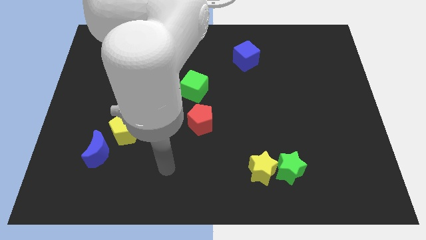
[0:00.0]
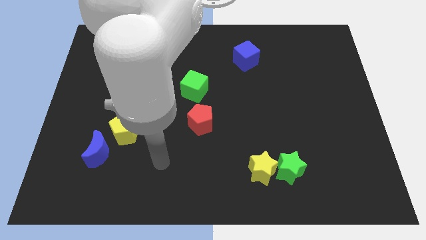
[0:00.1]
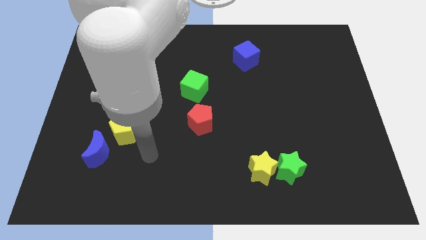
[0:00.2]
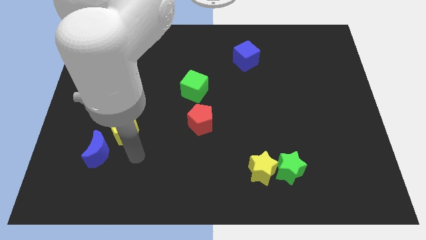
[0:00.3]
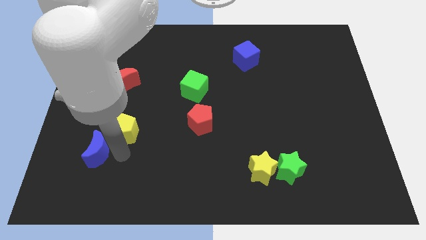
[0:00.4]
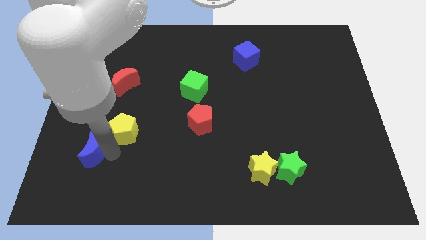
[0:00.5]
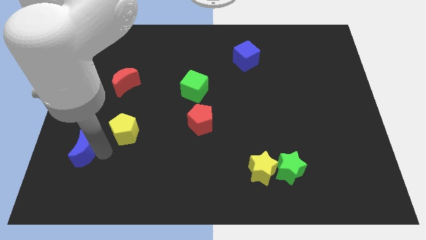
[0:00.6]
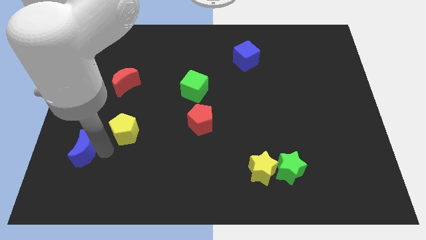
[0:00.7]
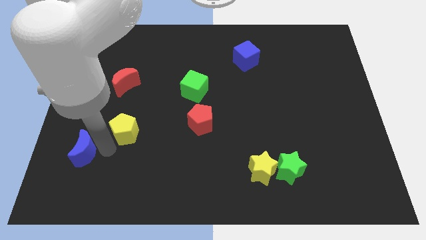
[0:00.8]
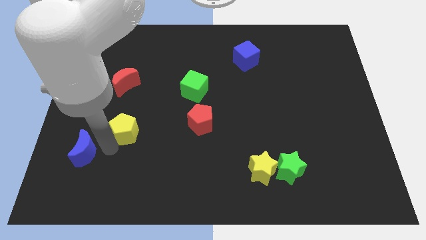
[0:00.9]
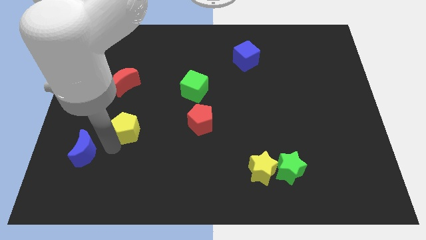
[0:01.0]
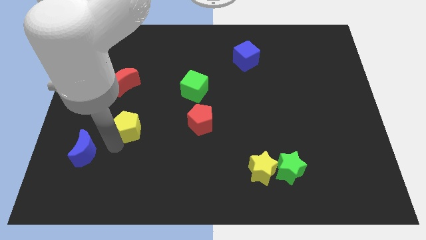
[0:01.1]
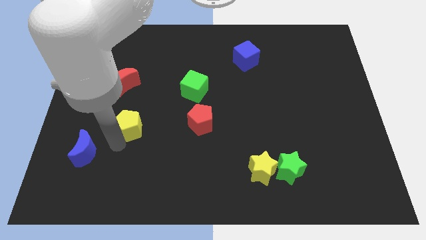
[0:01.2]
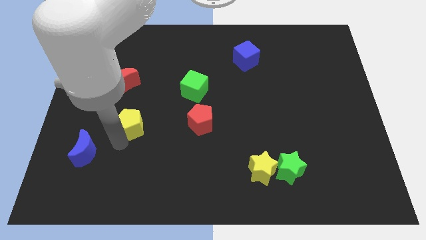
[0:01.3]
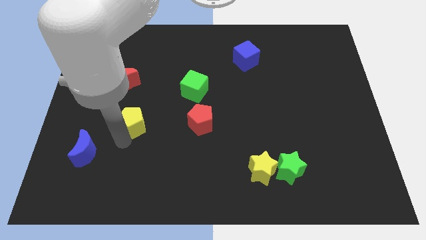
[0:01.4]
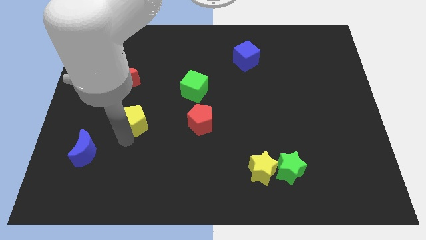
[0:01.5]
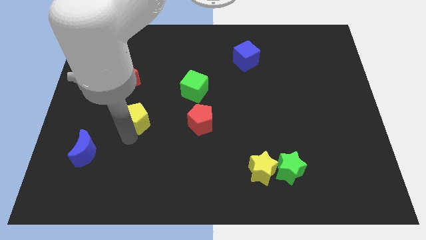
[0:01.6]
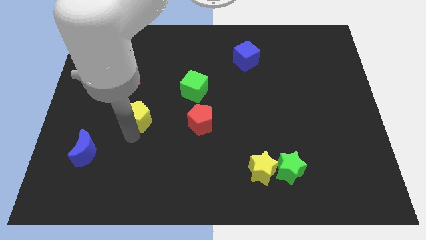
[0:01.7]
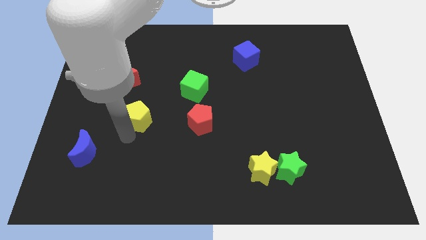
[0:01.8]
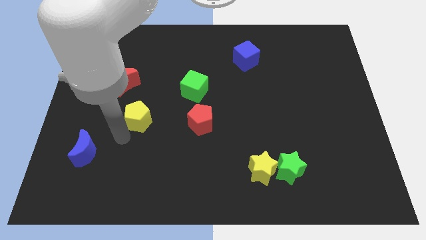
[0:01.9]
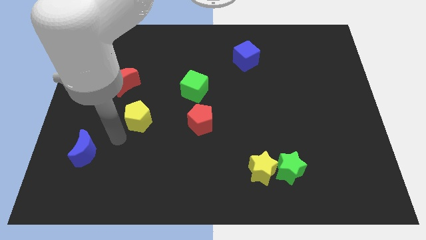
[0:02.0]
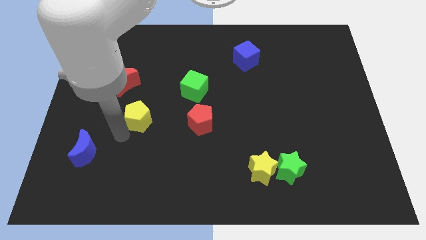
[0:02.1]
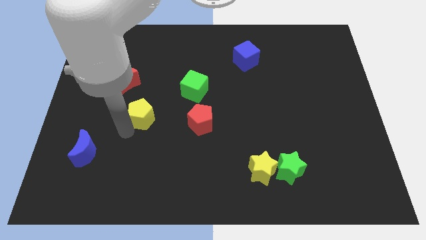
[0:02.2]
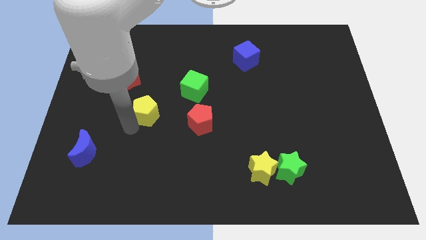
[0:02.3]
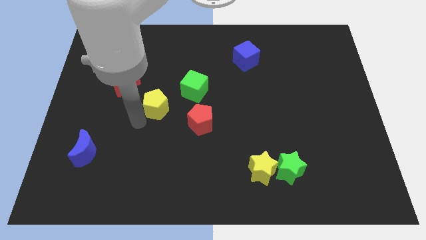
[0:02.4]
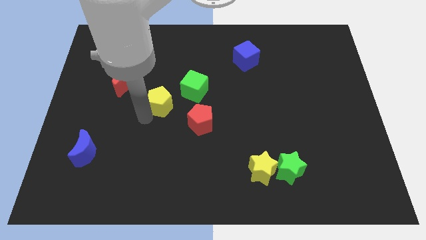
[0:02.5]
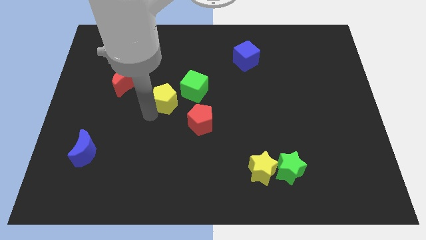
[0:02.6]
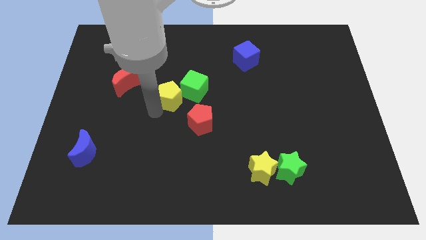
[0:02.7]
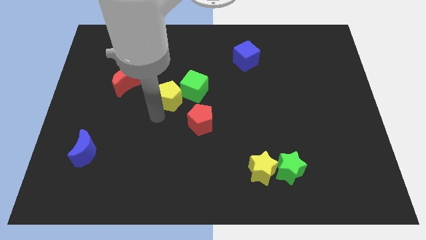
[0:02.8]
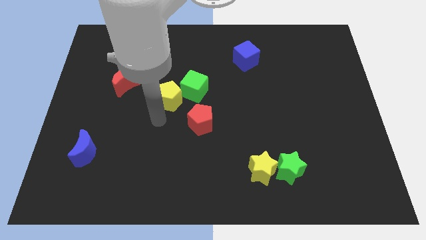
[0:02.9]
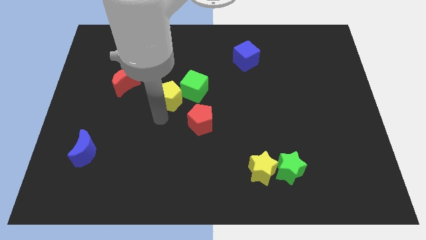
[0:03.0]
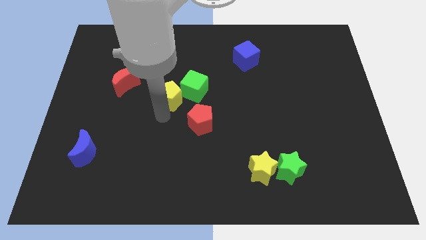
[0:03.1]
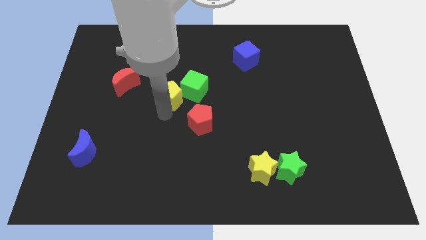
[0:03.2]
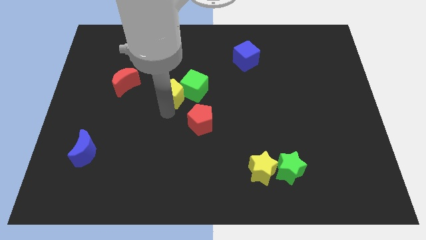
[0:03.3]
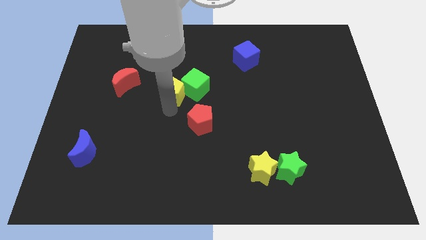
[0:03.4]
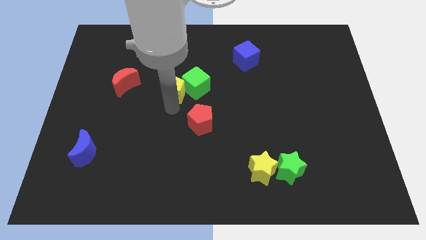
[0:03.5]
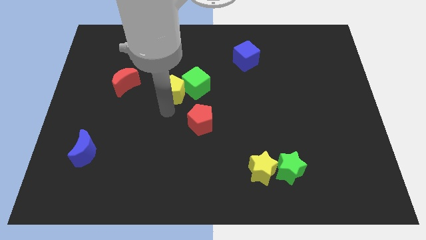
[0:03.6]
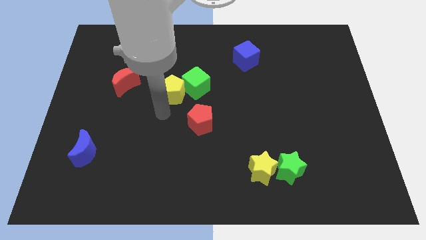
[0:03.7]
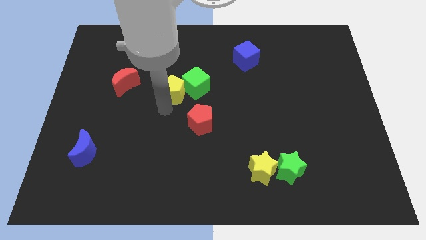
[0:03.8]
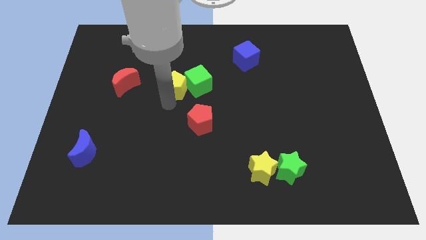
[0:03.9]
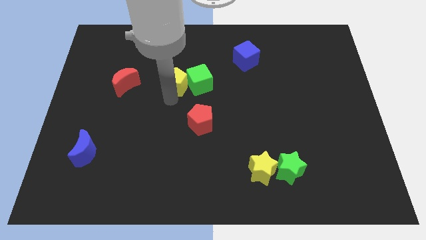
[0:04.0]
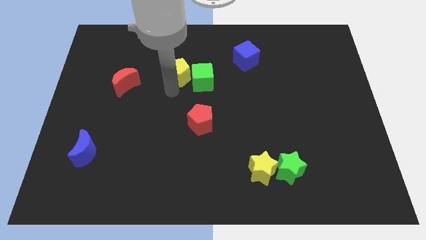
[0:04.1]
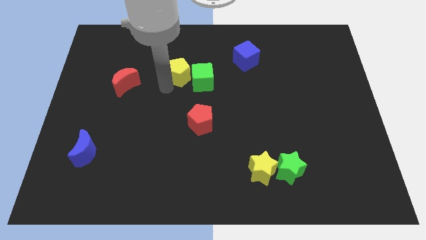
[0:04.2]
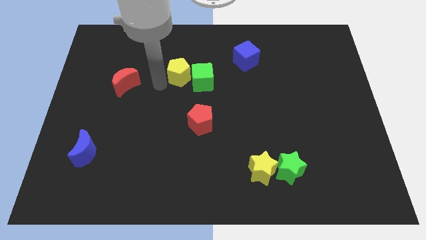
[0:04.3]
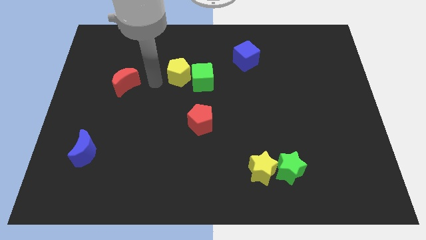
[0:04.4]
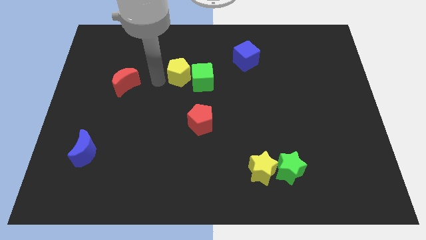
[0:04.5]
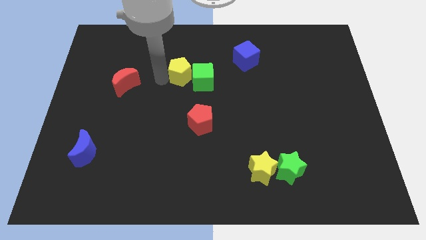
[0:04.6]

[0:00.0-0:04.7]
slide the yellow pentagon up and to the right diagonally

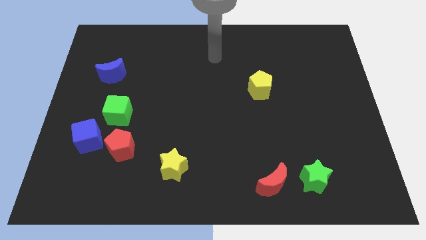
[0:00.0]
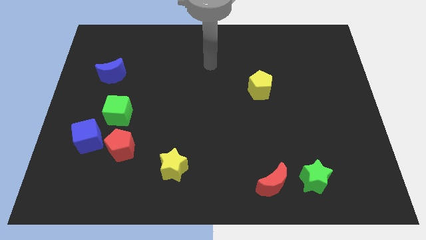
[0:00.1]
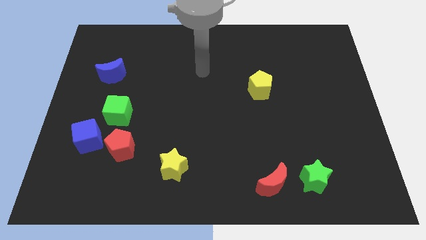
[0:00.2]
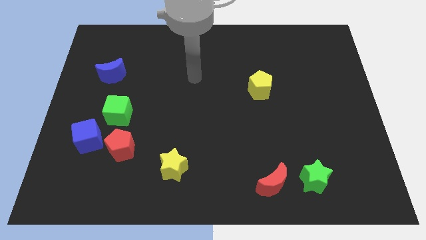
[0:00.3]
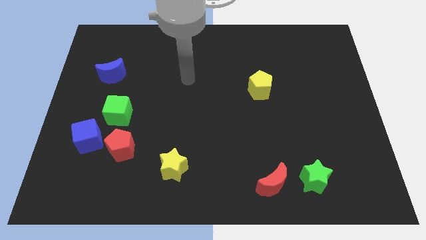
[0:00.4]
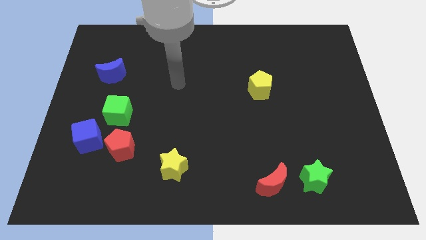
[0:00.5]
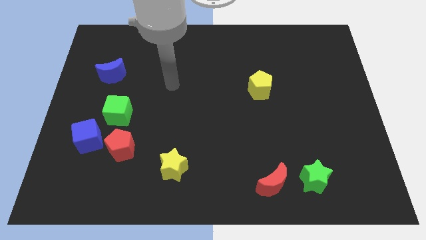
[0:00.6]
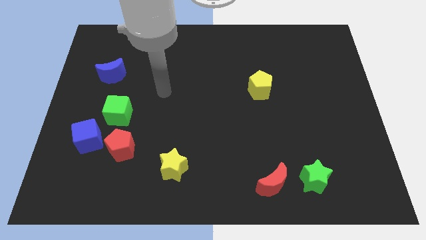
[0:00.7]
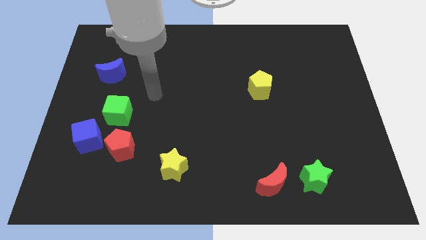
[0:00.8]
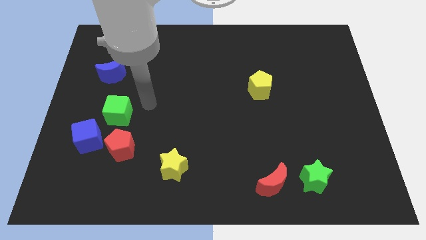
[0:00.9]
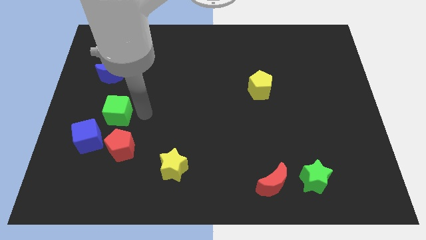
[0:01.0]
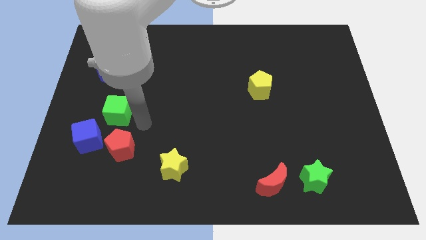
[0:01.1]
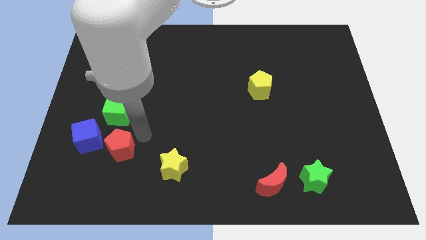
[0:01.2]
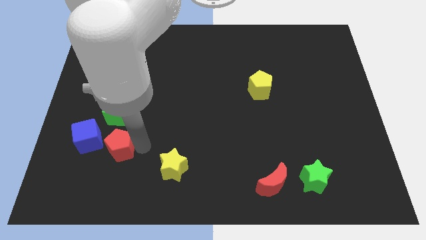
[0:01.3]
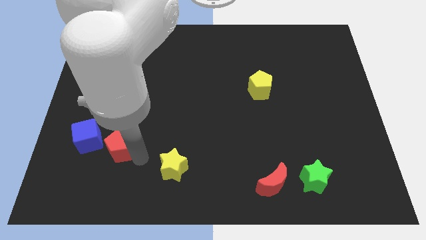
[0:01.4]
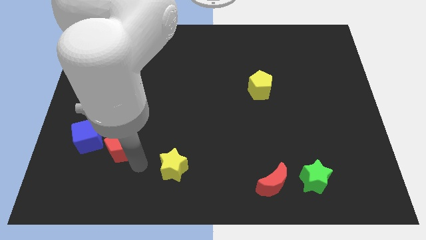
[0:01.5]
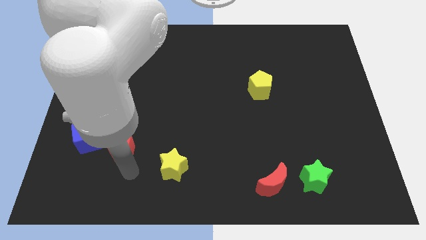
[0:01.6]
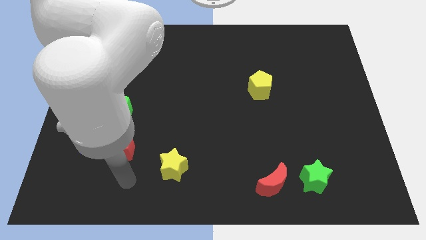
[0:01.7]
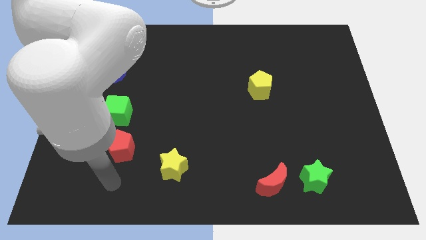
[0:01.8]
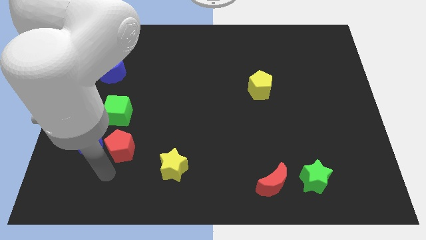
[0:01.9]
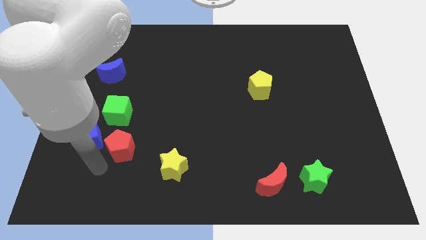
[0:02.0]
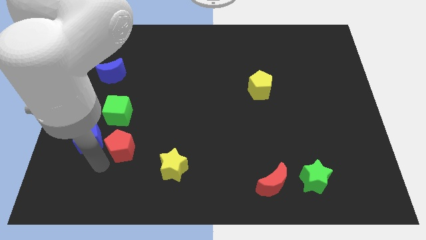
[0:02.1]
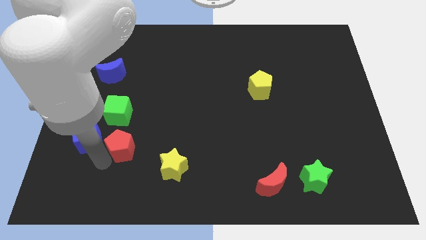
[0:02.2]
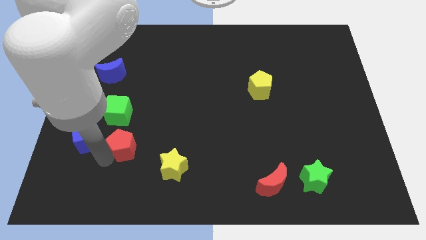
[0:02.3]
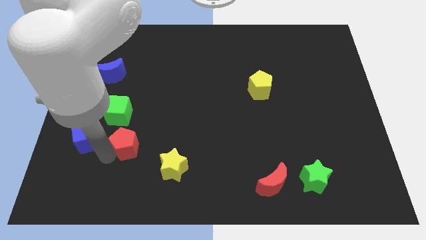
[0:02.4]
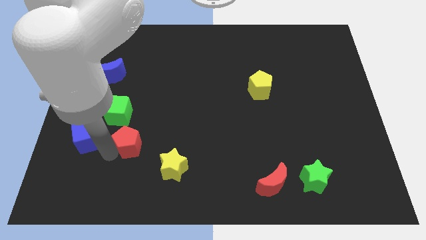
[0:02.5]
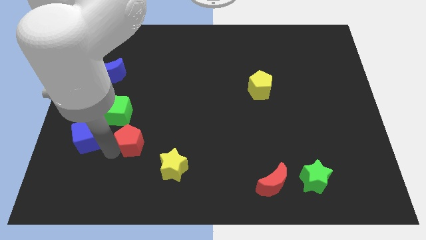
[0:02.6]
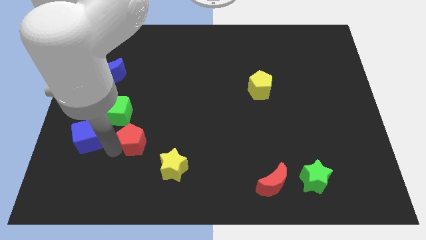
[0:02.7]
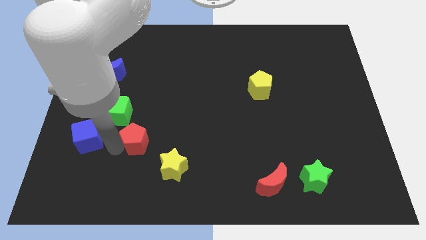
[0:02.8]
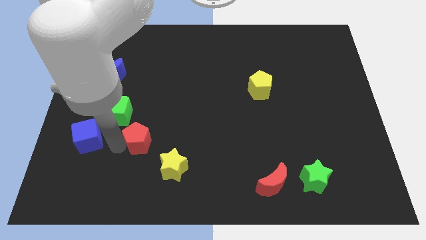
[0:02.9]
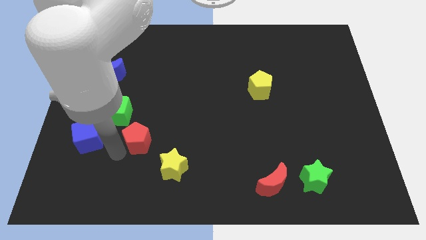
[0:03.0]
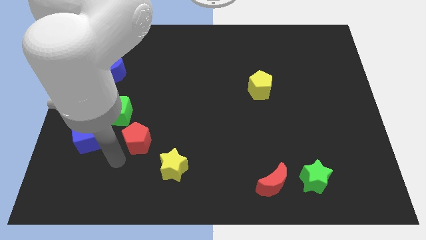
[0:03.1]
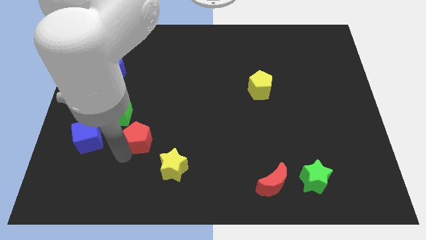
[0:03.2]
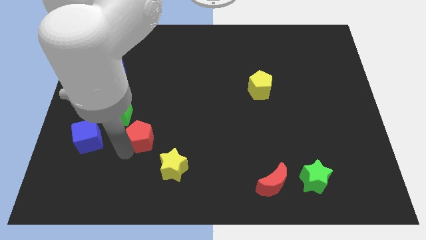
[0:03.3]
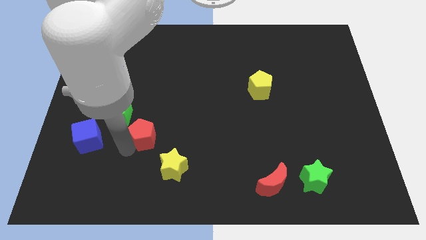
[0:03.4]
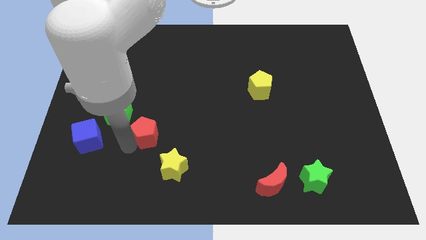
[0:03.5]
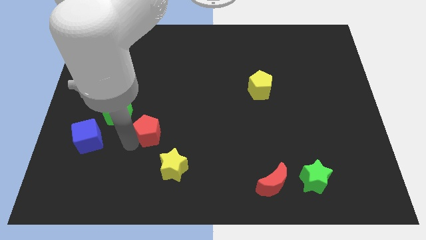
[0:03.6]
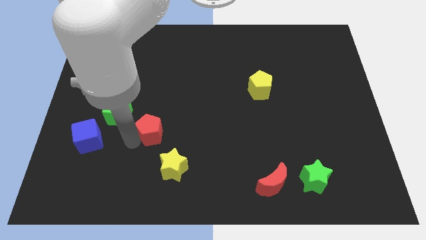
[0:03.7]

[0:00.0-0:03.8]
slide the red pentagon somewhat up and right diagonally
